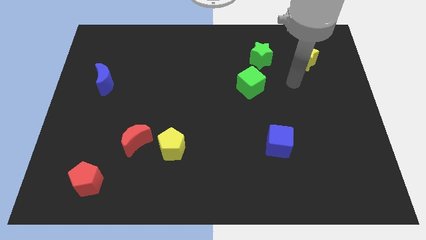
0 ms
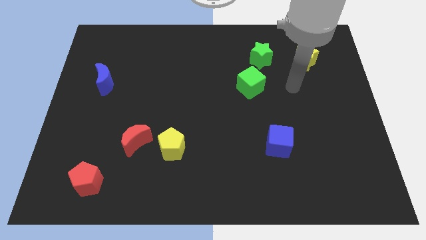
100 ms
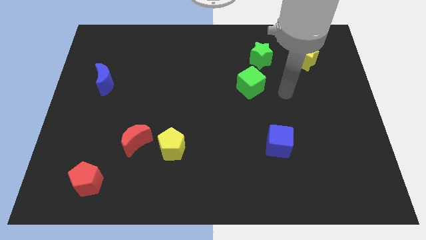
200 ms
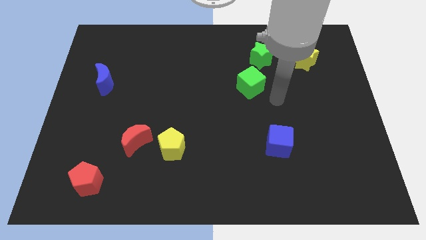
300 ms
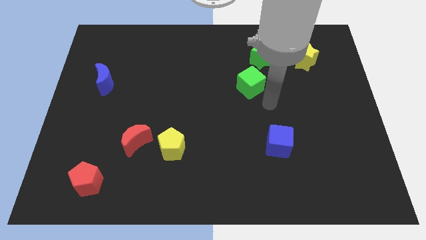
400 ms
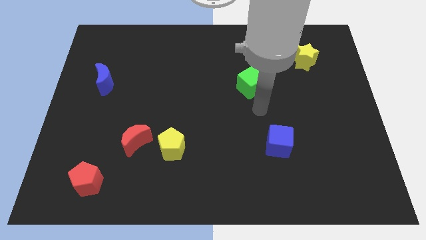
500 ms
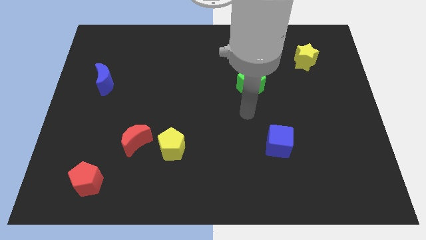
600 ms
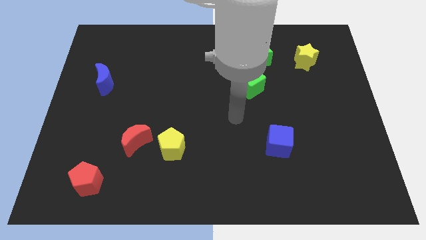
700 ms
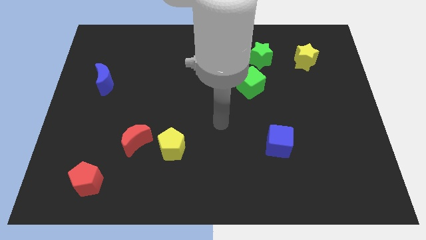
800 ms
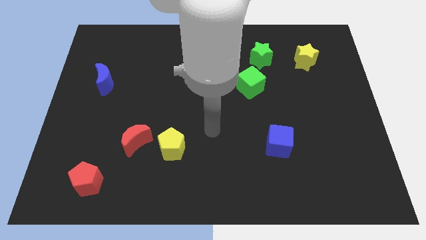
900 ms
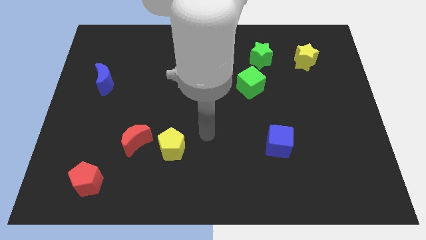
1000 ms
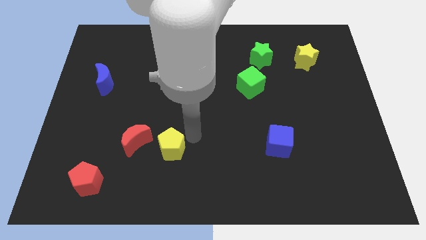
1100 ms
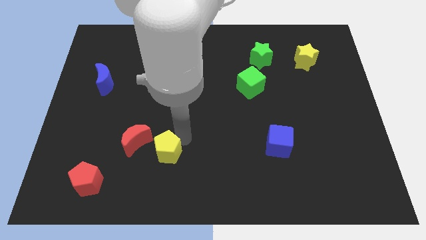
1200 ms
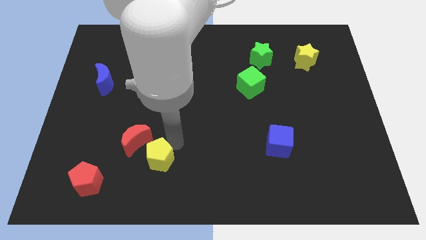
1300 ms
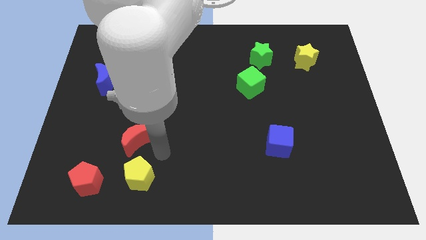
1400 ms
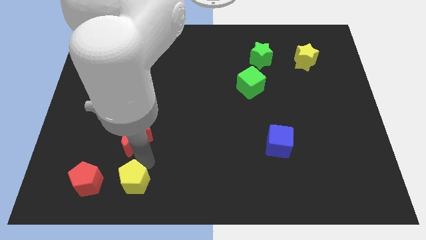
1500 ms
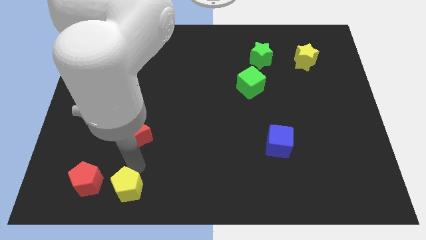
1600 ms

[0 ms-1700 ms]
separate the red moon from the yellow pentagon

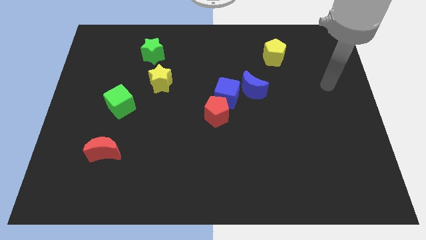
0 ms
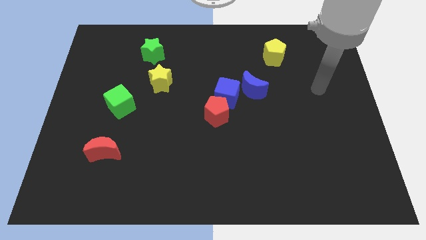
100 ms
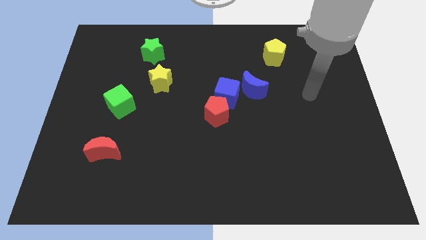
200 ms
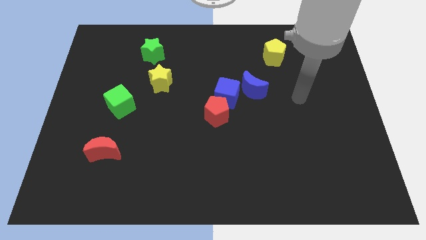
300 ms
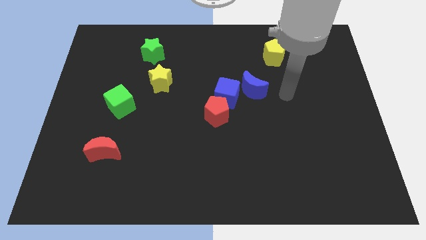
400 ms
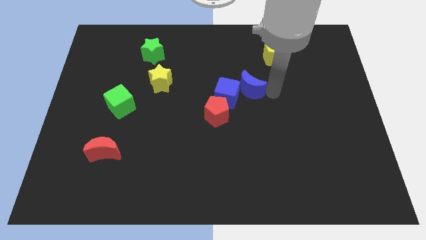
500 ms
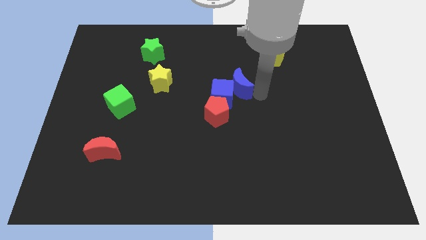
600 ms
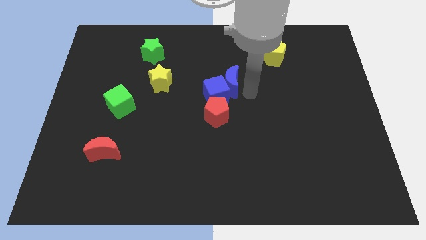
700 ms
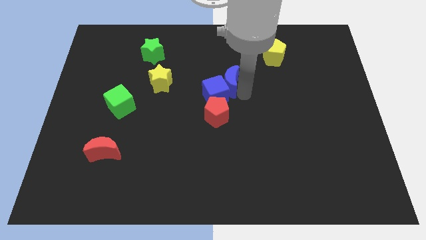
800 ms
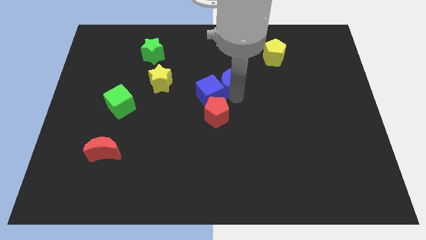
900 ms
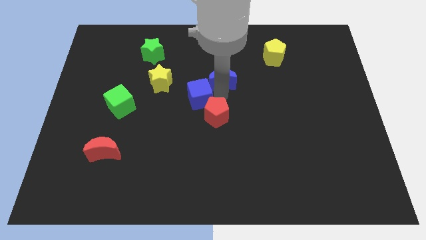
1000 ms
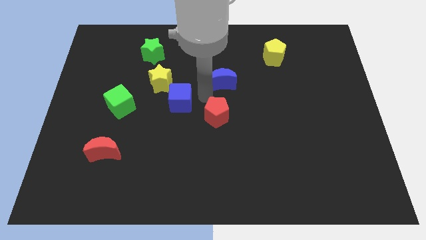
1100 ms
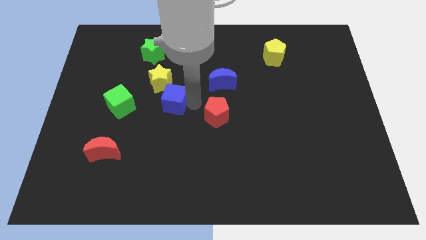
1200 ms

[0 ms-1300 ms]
move the red pentagon away from the blue cube

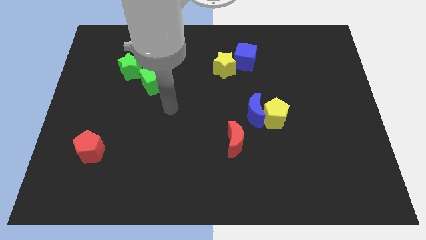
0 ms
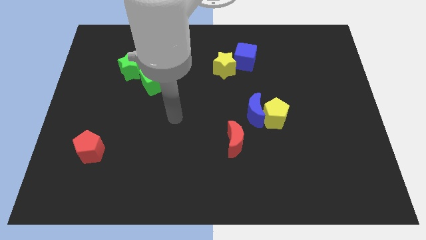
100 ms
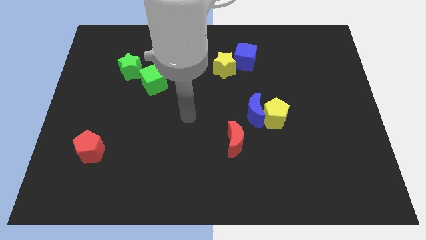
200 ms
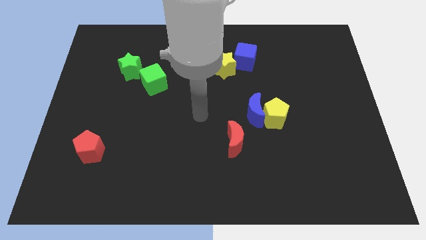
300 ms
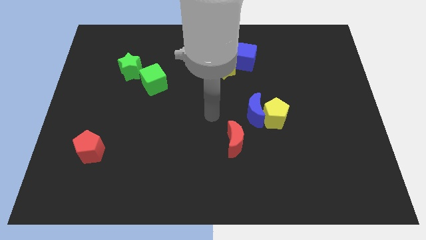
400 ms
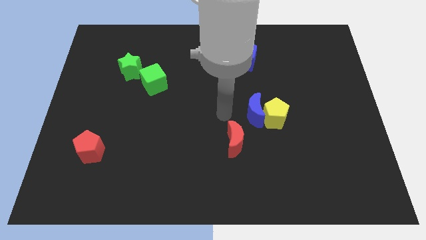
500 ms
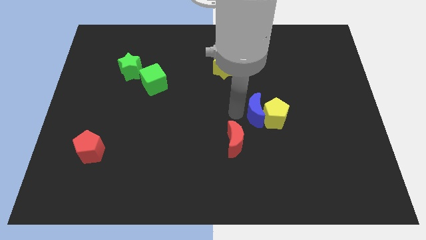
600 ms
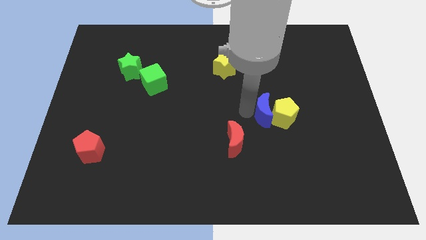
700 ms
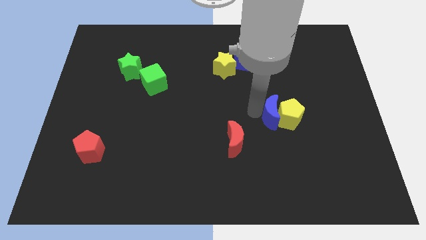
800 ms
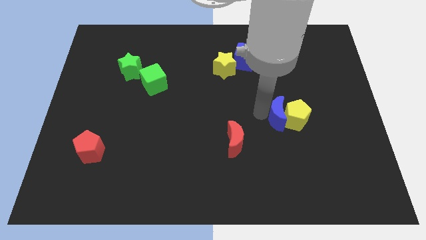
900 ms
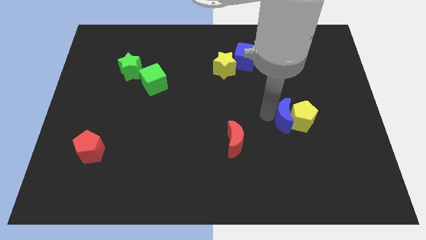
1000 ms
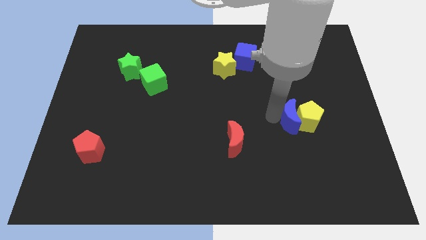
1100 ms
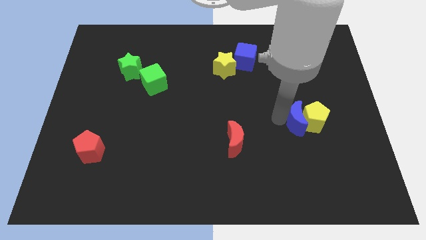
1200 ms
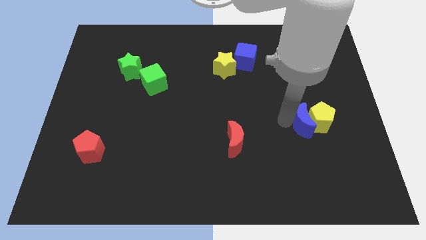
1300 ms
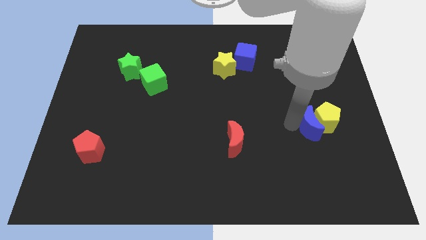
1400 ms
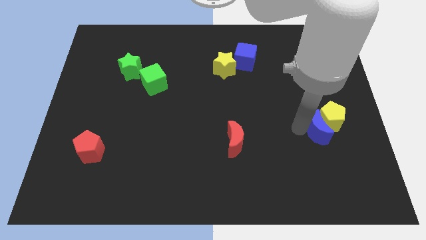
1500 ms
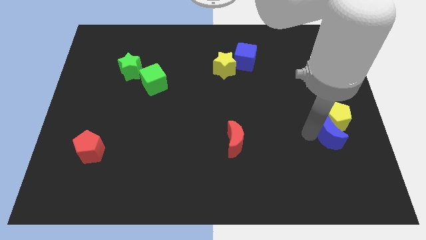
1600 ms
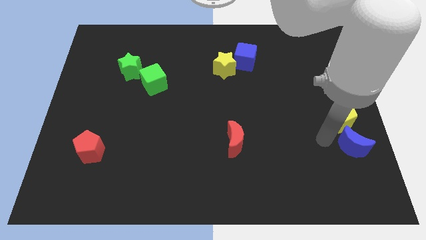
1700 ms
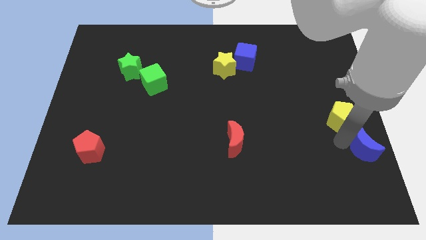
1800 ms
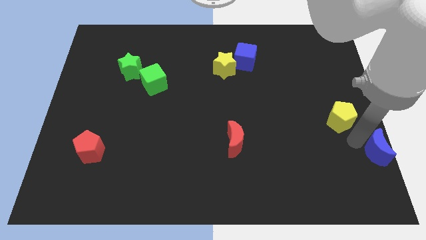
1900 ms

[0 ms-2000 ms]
separate the yellow pentagon from the blue moon

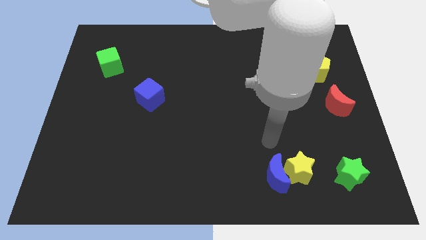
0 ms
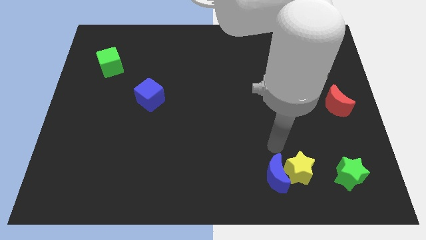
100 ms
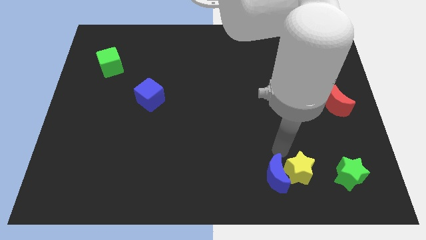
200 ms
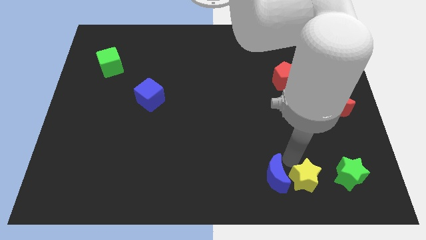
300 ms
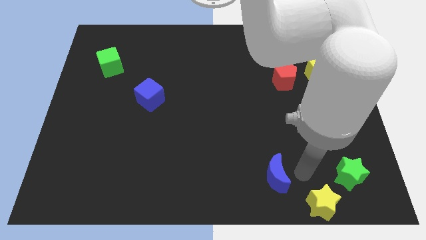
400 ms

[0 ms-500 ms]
pull the blue moon apart from the yellow star

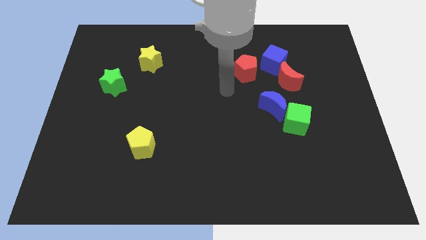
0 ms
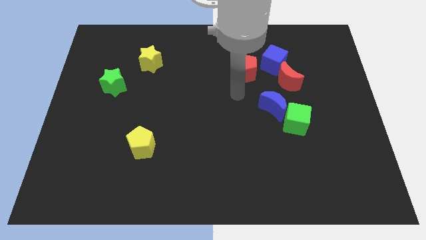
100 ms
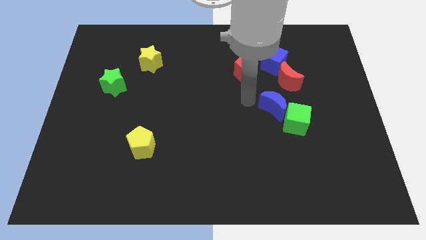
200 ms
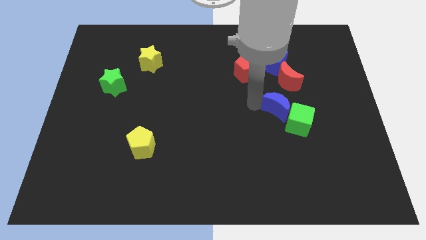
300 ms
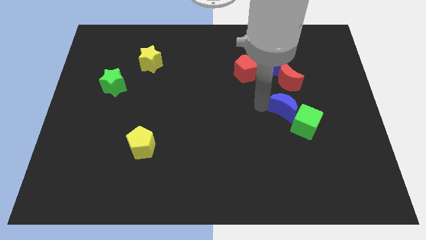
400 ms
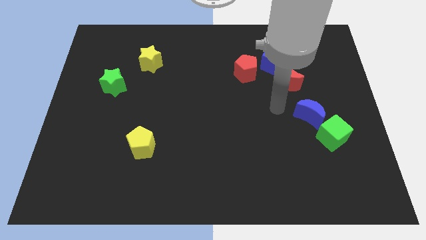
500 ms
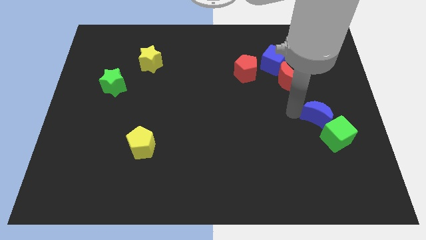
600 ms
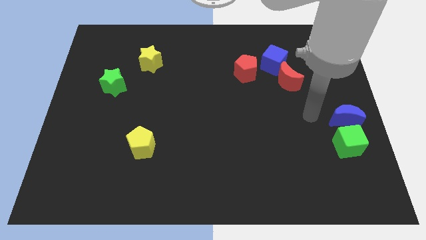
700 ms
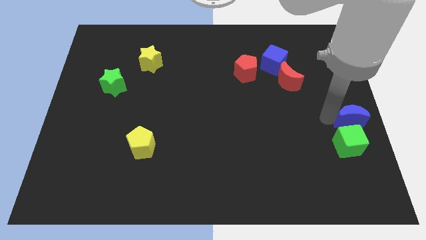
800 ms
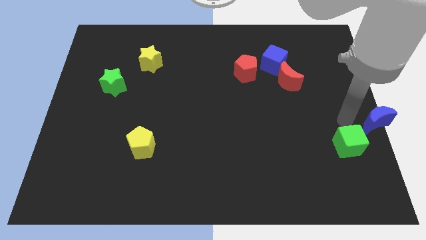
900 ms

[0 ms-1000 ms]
separate the green cube from the blue moon

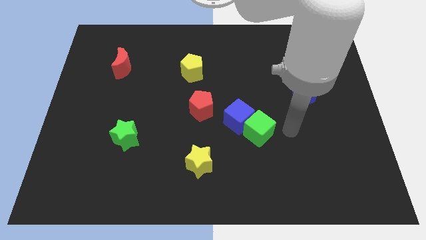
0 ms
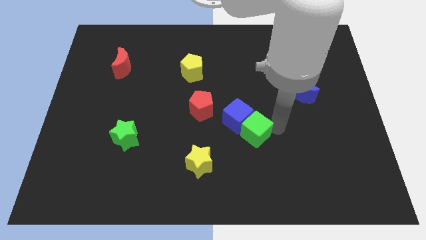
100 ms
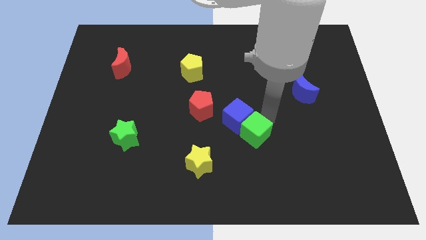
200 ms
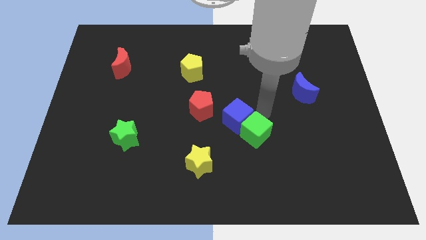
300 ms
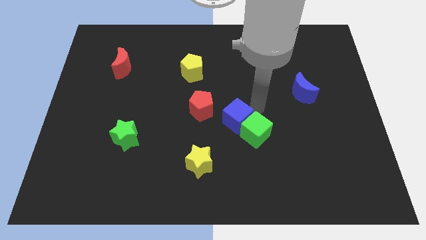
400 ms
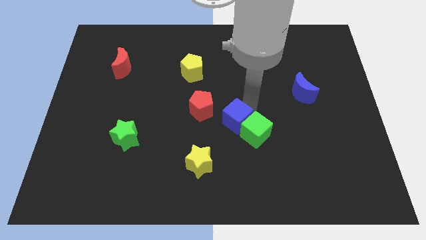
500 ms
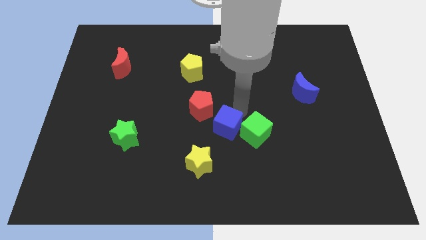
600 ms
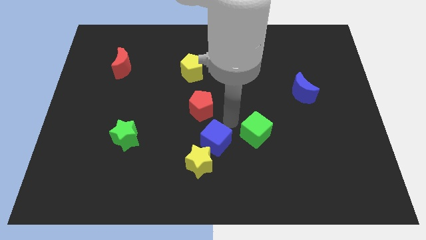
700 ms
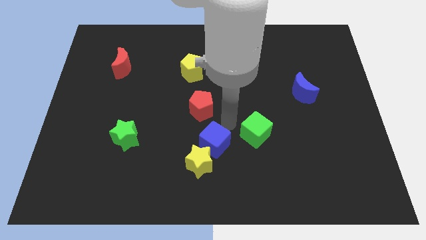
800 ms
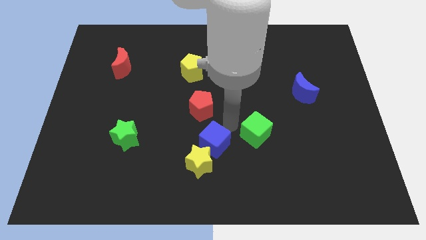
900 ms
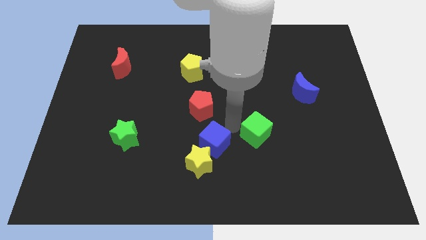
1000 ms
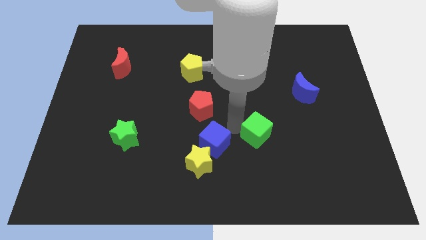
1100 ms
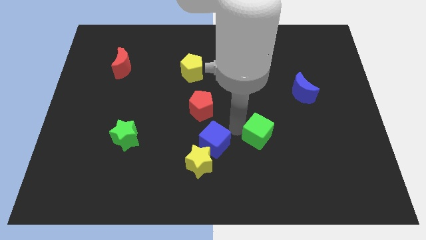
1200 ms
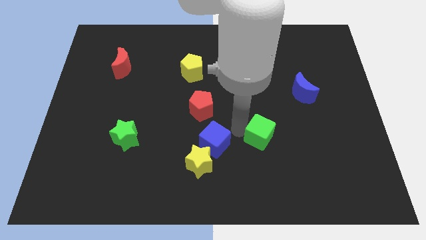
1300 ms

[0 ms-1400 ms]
pull the green cube apart from the blue cube

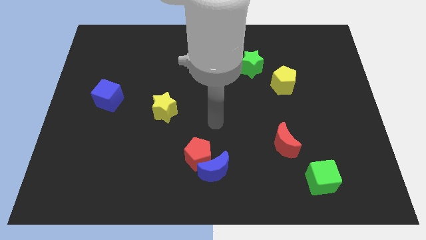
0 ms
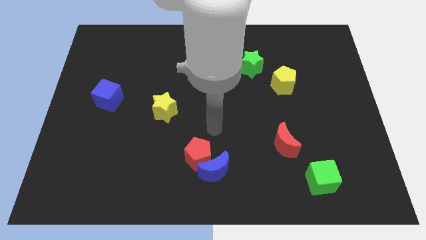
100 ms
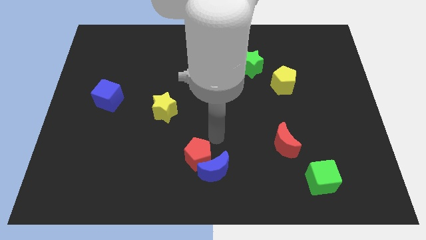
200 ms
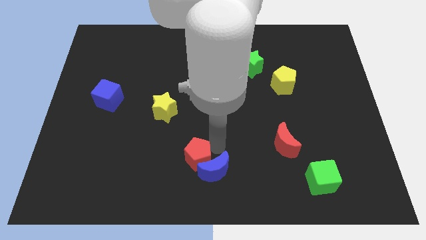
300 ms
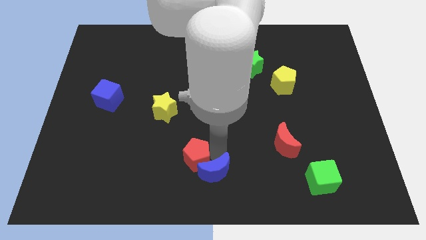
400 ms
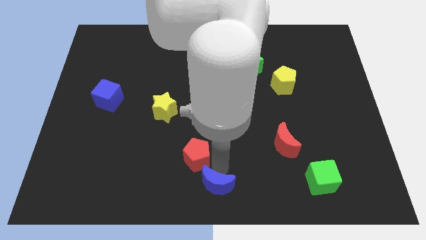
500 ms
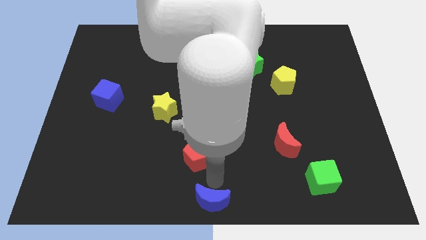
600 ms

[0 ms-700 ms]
pull the red pentagon apart from the blue moon

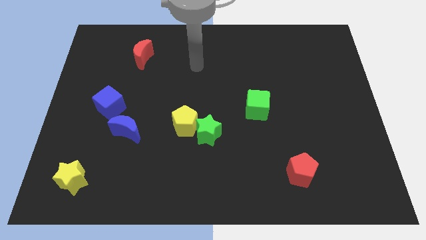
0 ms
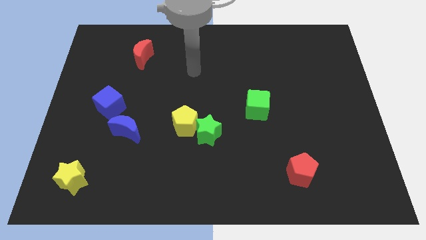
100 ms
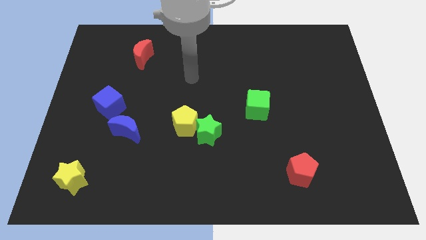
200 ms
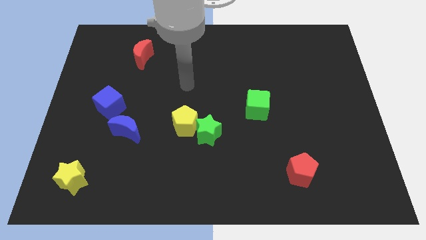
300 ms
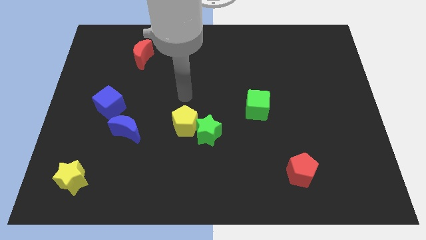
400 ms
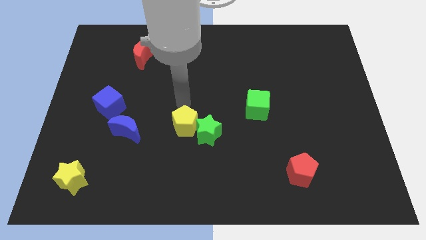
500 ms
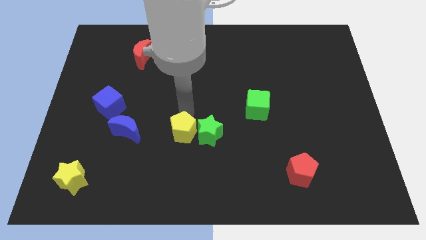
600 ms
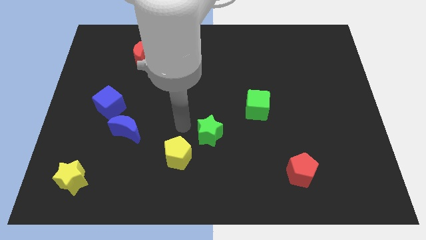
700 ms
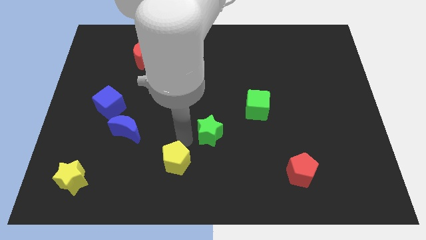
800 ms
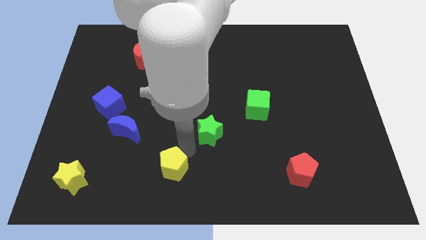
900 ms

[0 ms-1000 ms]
separate the green star from the yellow pentagon
